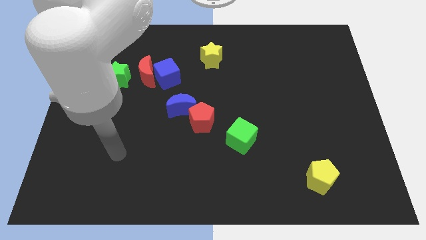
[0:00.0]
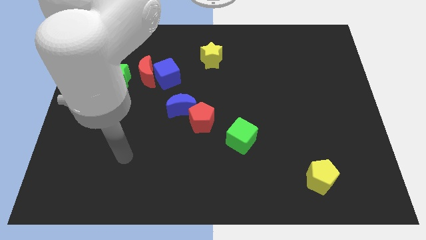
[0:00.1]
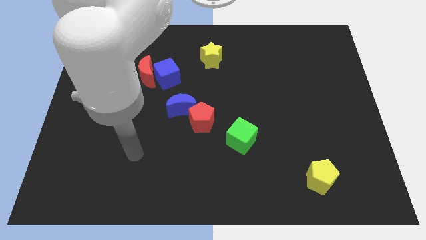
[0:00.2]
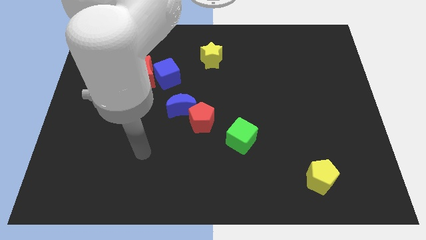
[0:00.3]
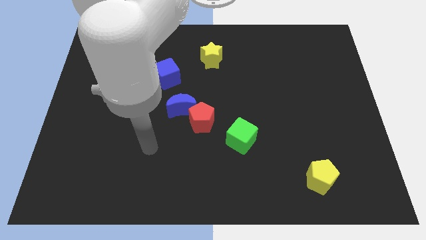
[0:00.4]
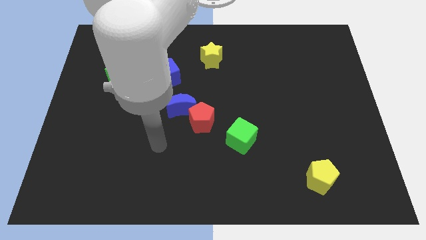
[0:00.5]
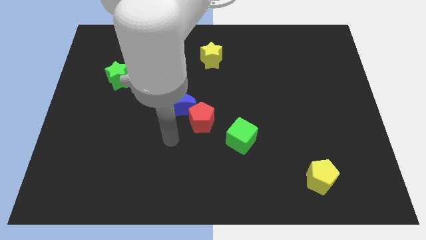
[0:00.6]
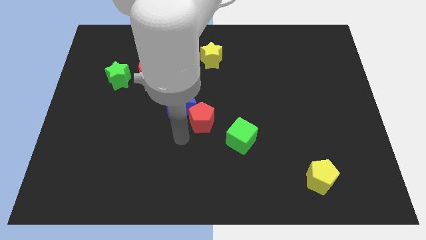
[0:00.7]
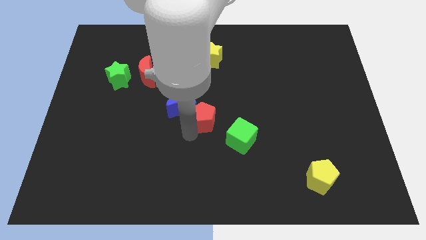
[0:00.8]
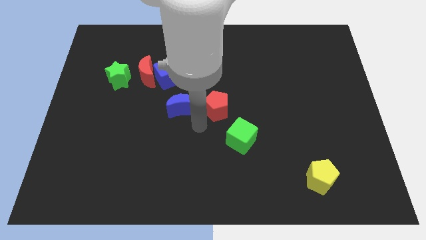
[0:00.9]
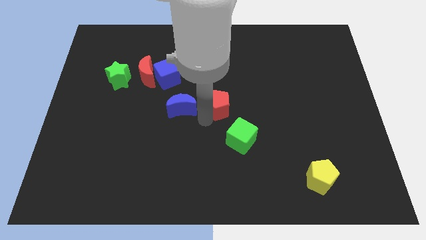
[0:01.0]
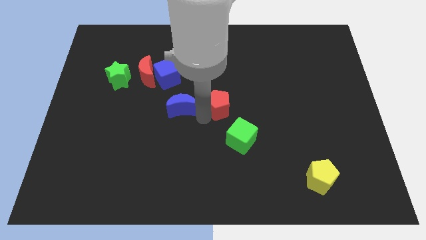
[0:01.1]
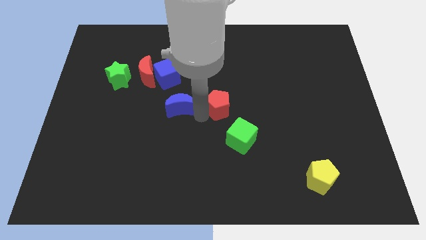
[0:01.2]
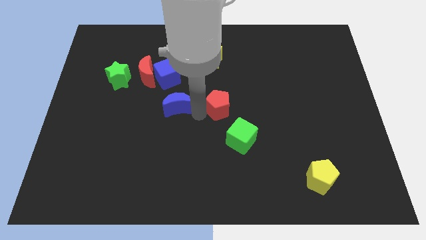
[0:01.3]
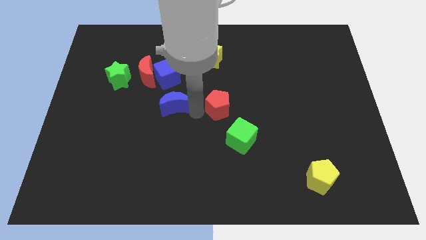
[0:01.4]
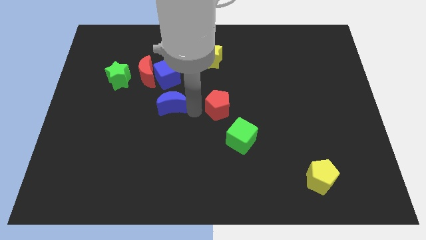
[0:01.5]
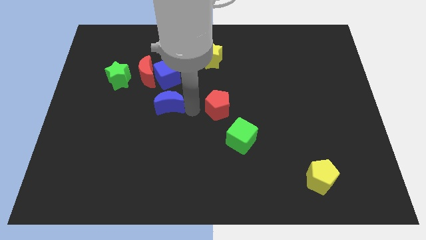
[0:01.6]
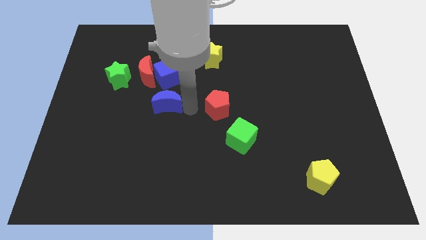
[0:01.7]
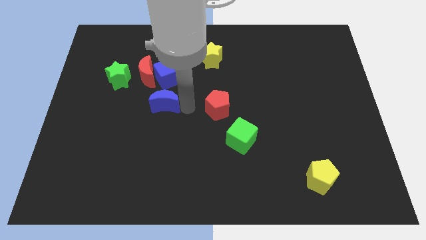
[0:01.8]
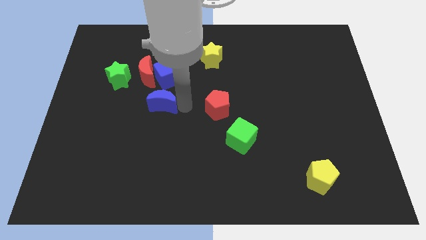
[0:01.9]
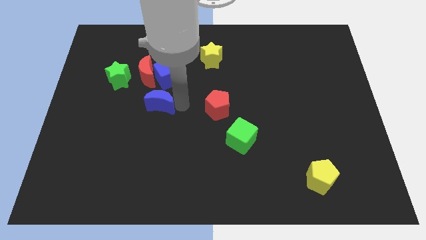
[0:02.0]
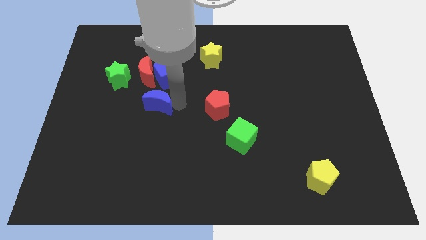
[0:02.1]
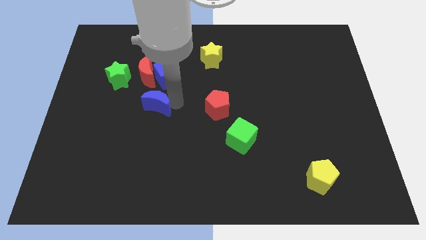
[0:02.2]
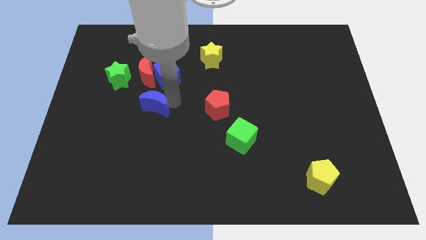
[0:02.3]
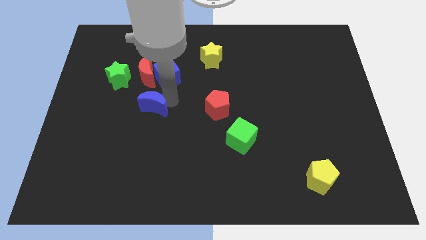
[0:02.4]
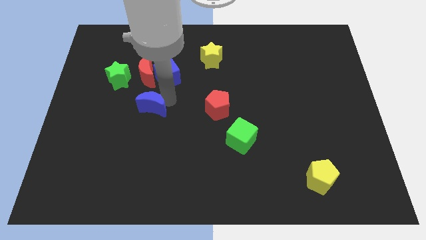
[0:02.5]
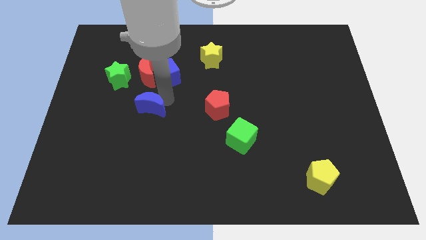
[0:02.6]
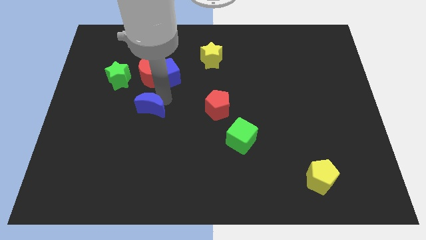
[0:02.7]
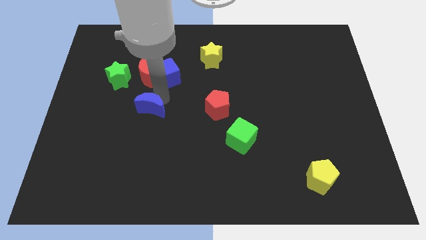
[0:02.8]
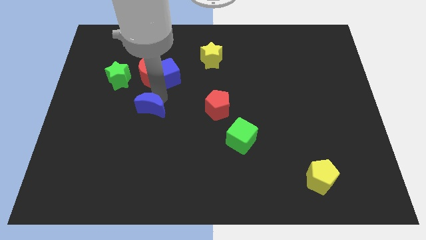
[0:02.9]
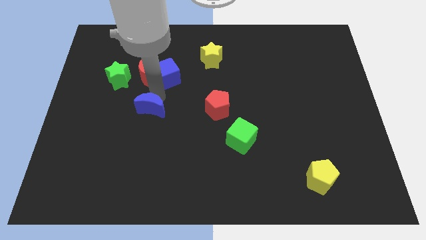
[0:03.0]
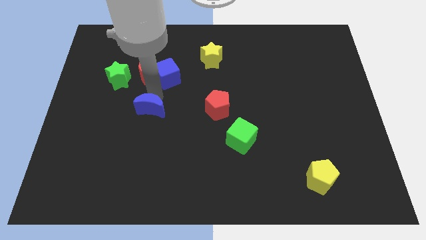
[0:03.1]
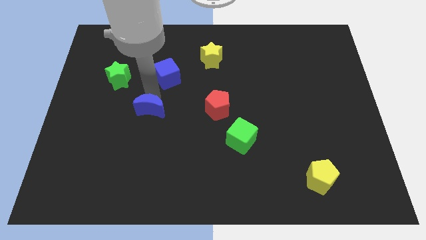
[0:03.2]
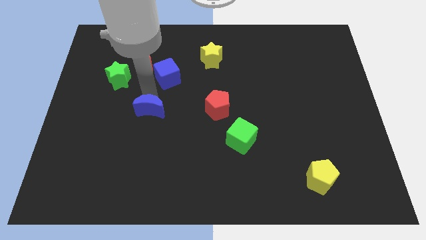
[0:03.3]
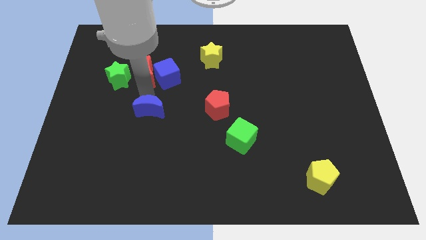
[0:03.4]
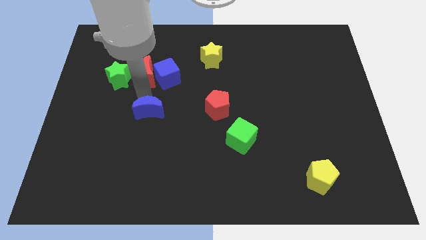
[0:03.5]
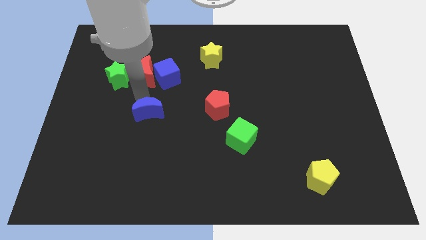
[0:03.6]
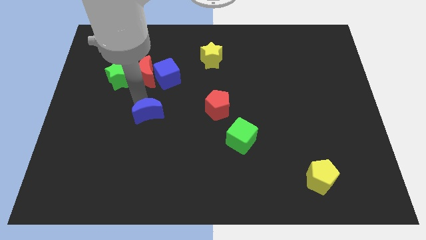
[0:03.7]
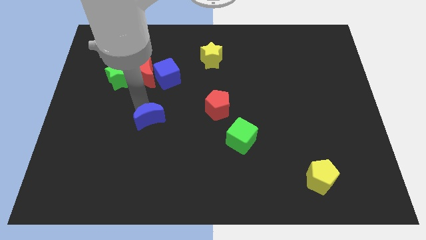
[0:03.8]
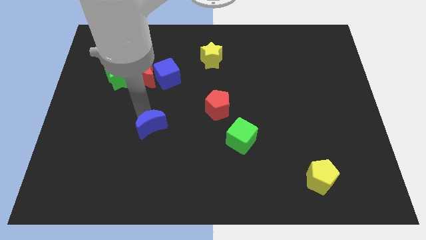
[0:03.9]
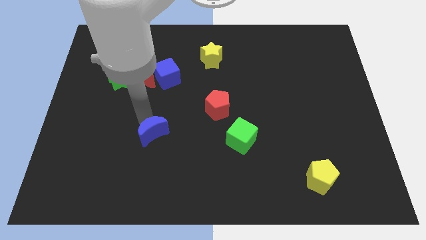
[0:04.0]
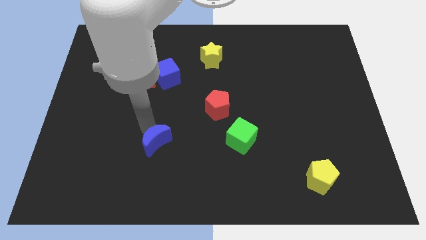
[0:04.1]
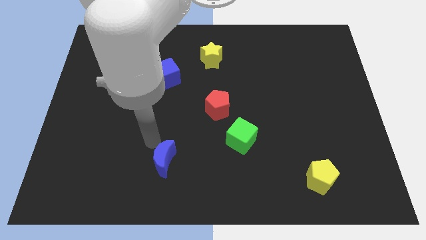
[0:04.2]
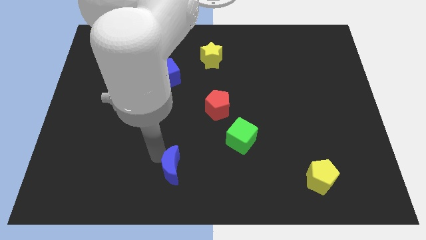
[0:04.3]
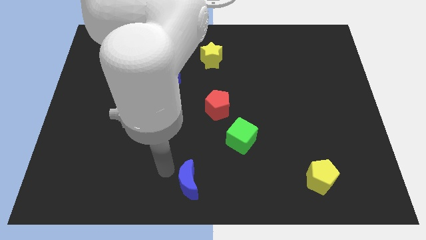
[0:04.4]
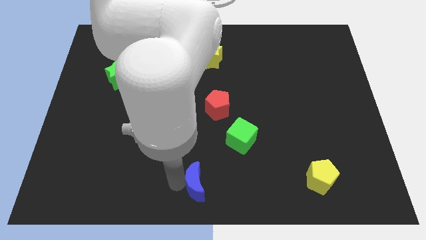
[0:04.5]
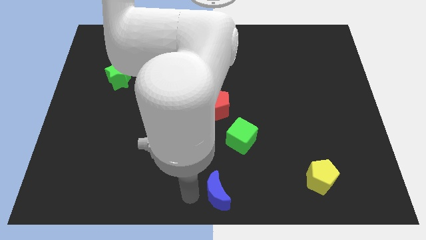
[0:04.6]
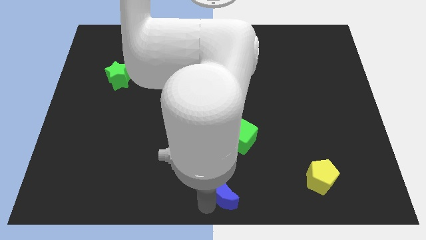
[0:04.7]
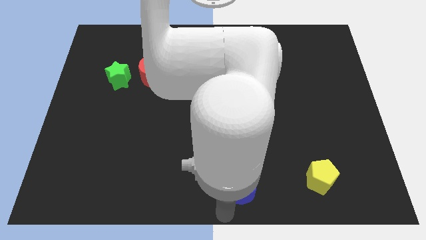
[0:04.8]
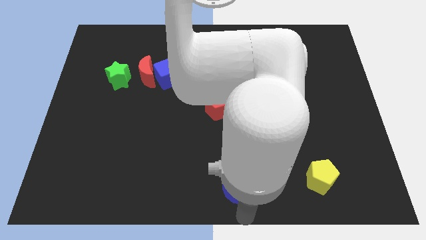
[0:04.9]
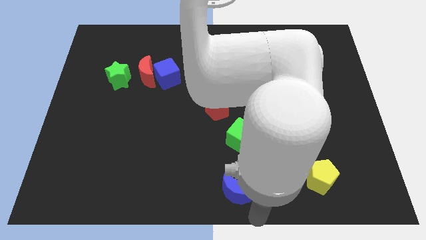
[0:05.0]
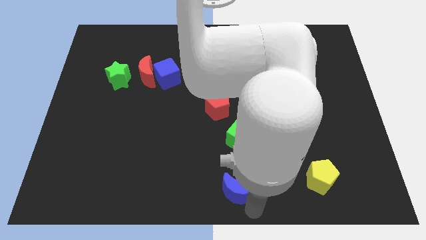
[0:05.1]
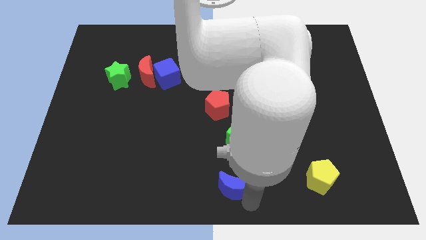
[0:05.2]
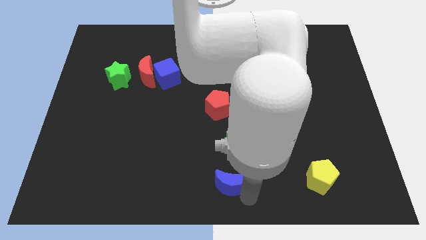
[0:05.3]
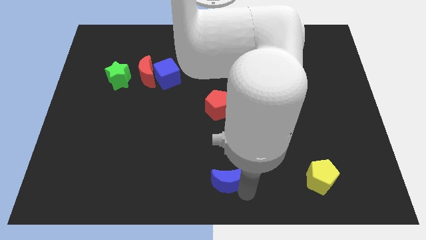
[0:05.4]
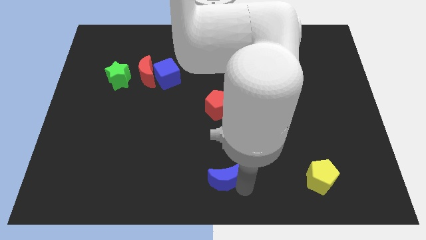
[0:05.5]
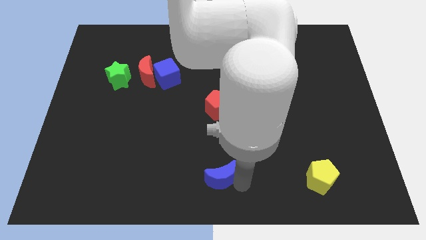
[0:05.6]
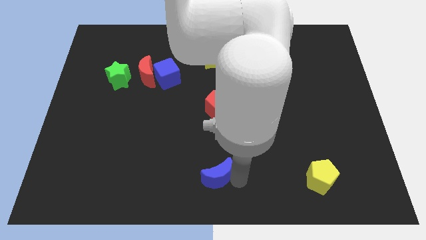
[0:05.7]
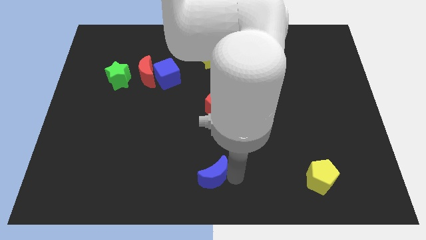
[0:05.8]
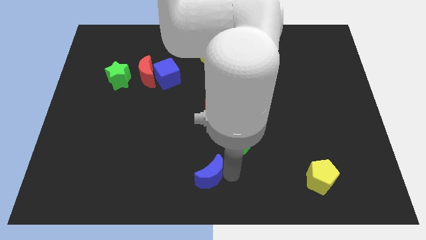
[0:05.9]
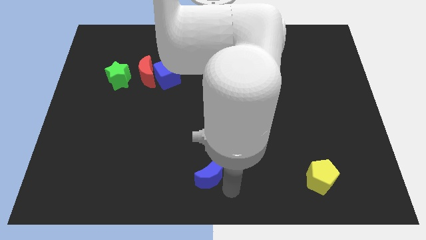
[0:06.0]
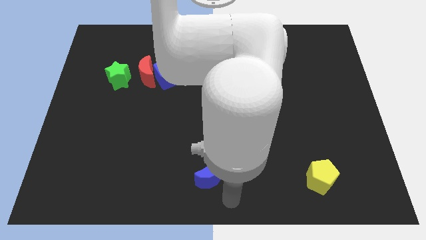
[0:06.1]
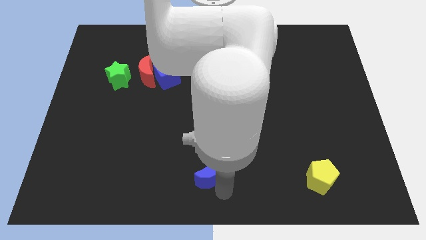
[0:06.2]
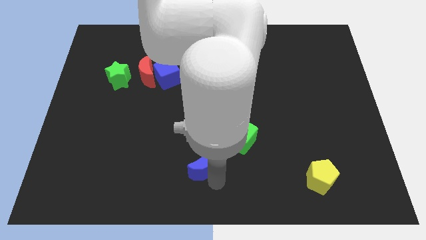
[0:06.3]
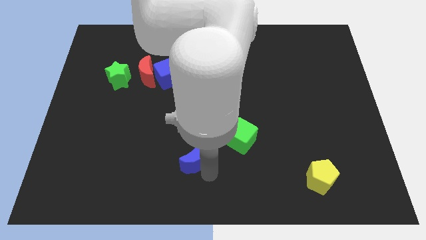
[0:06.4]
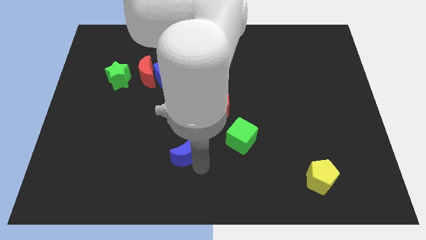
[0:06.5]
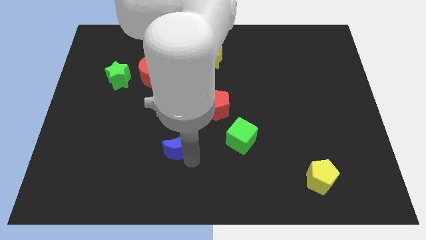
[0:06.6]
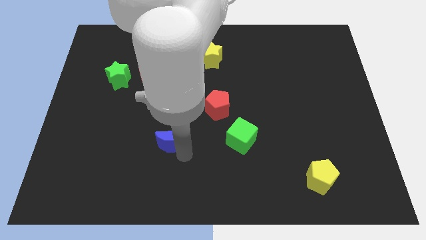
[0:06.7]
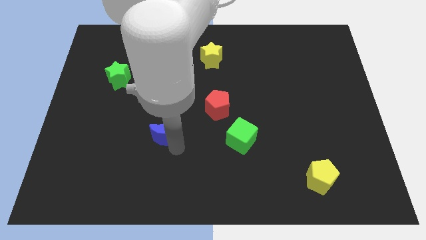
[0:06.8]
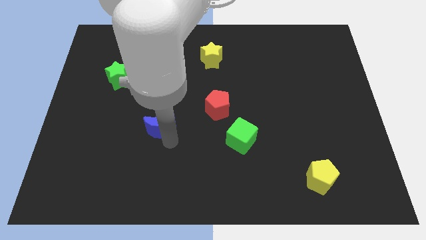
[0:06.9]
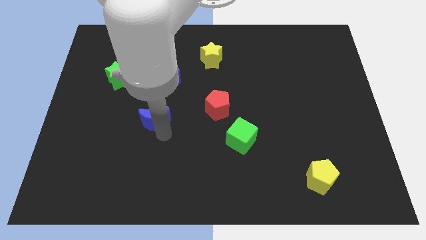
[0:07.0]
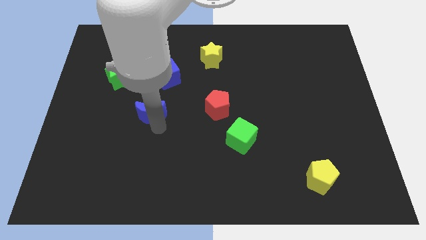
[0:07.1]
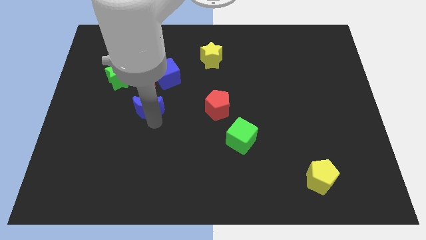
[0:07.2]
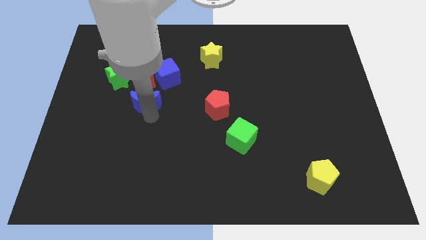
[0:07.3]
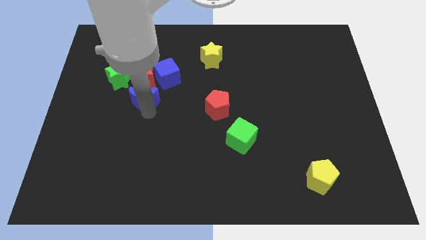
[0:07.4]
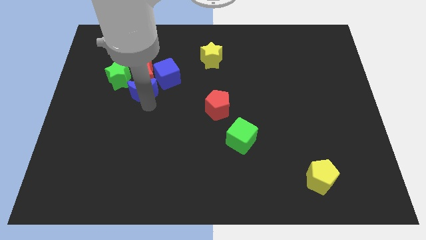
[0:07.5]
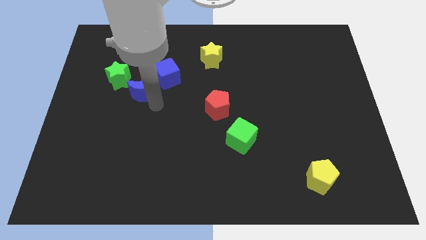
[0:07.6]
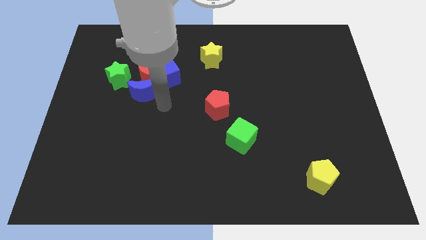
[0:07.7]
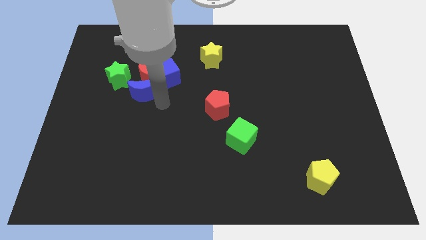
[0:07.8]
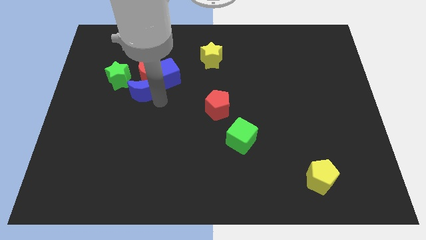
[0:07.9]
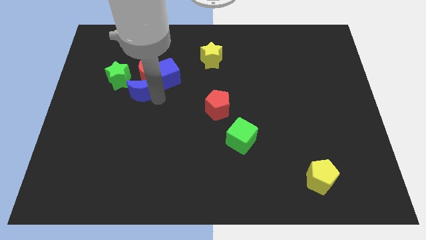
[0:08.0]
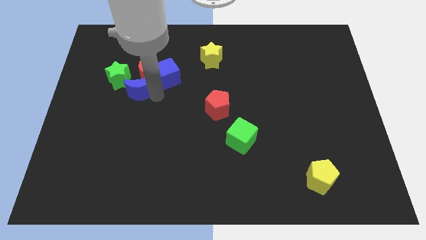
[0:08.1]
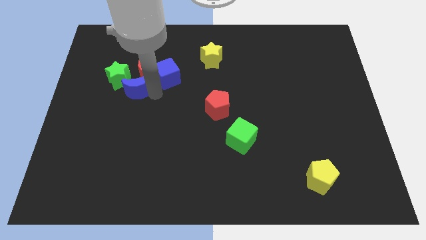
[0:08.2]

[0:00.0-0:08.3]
put the blue moon next to the green star
